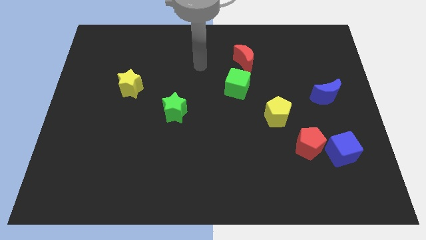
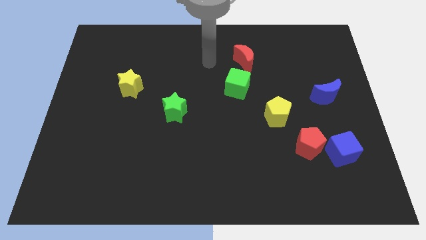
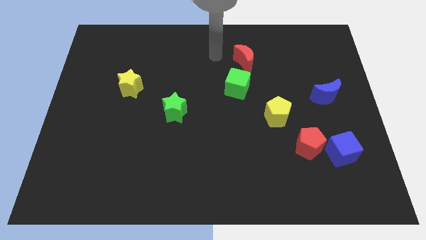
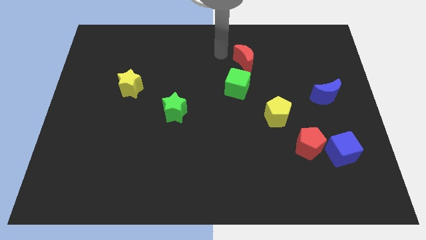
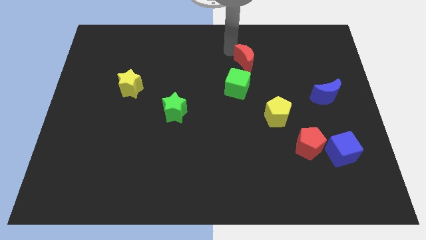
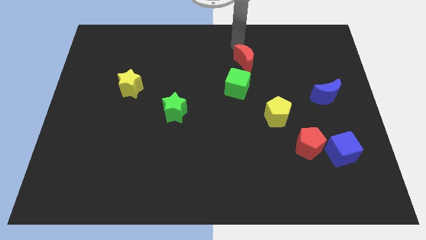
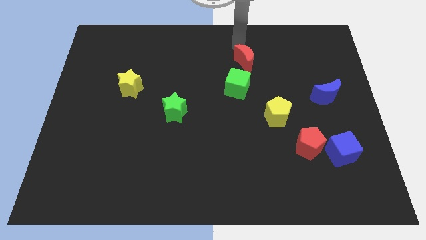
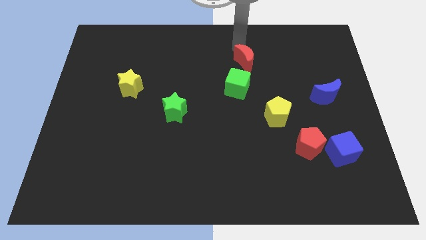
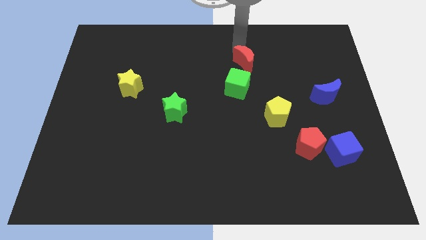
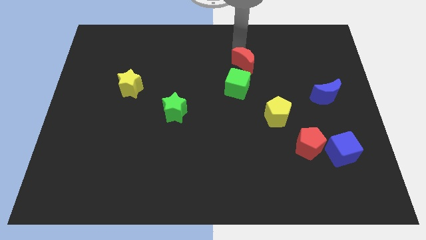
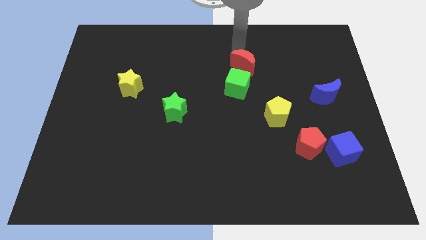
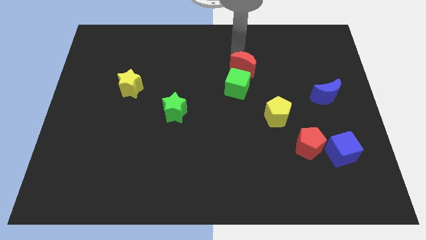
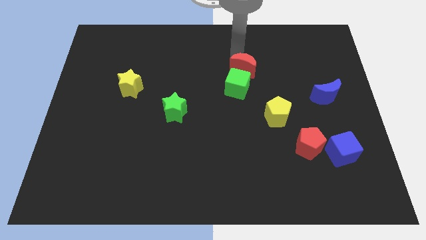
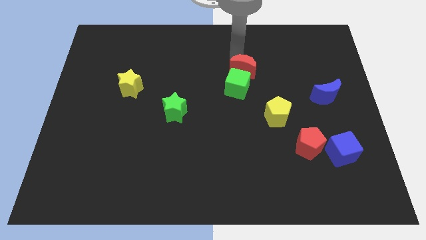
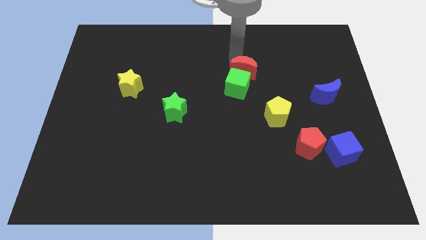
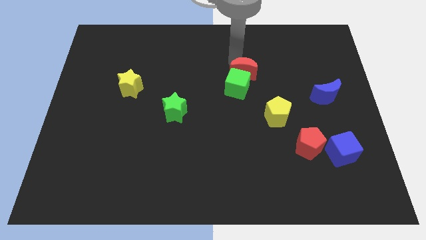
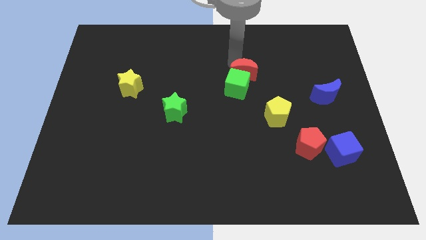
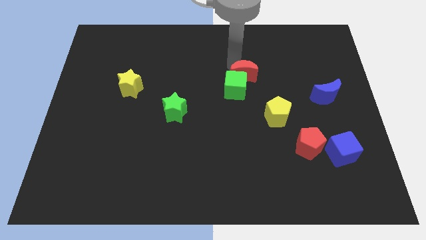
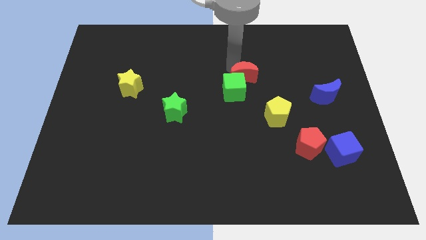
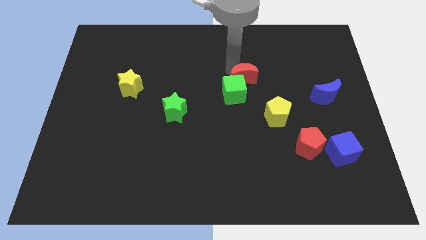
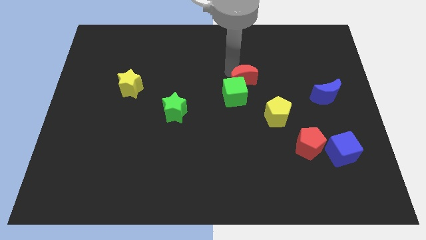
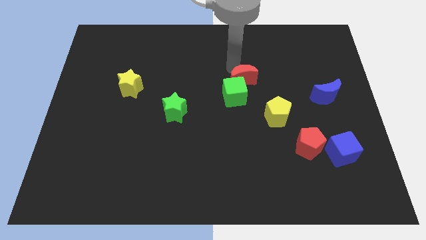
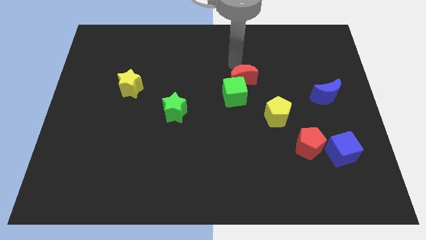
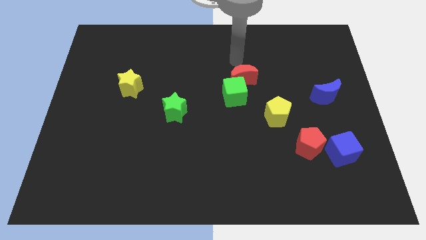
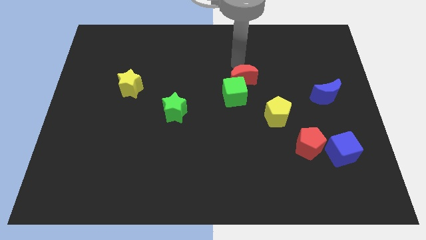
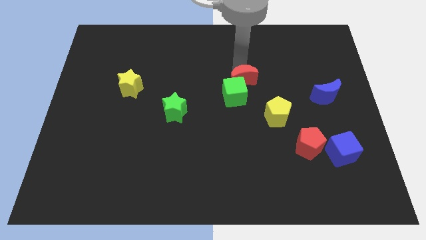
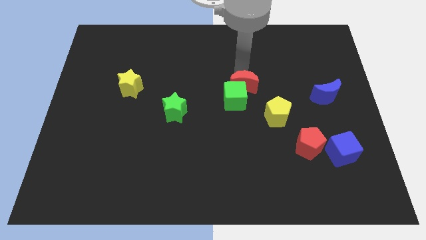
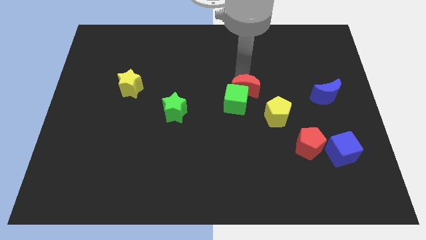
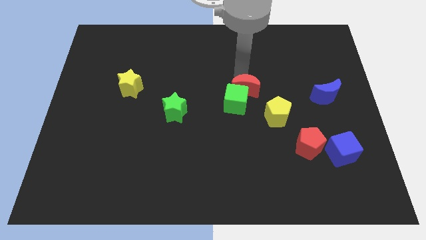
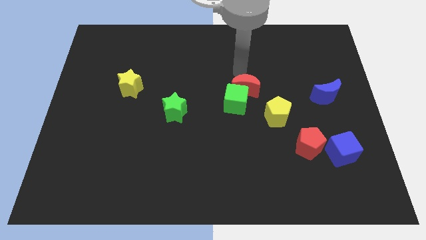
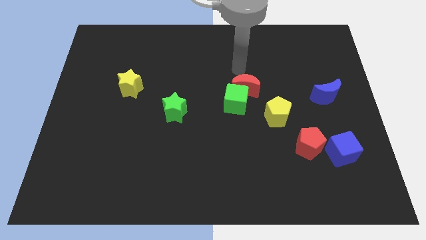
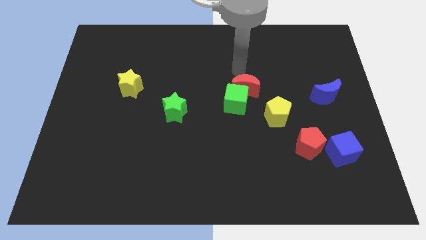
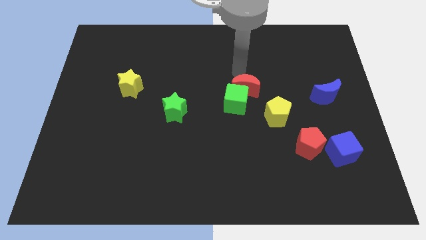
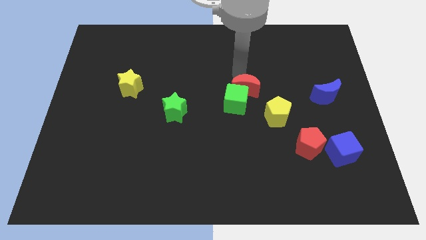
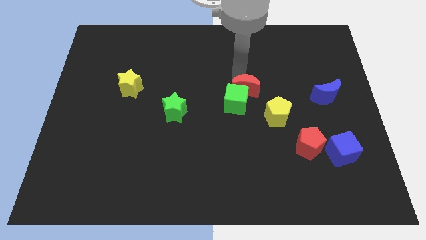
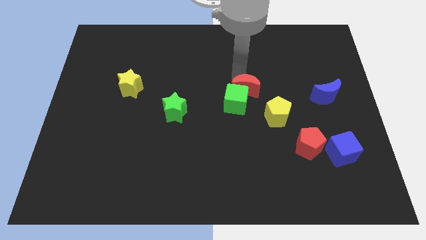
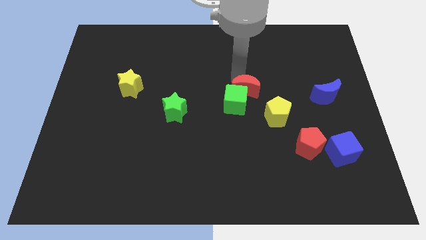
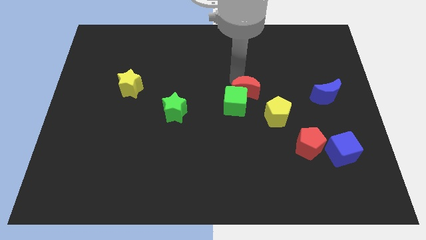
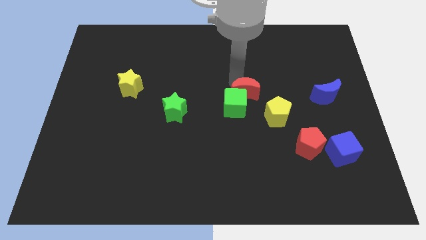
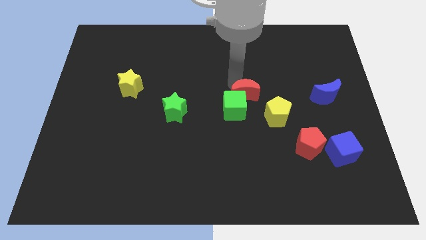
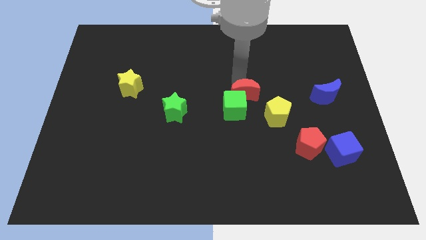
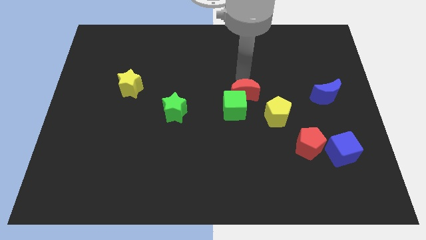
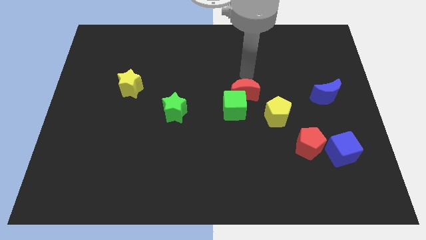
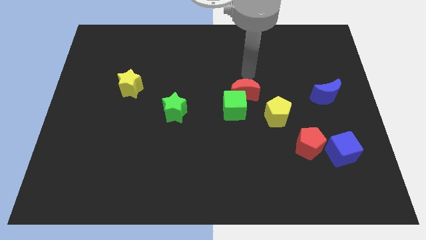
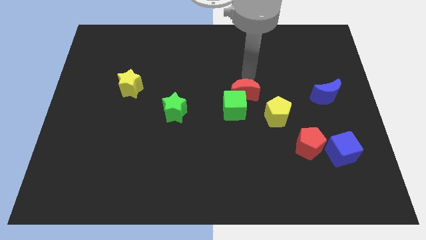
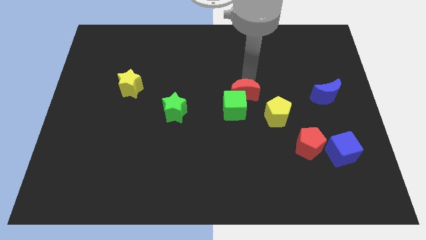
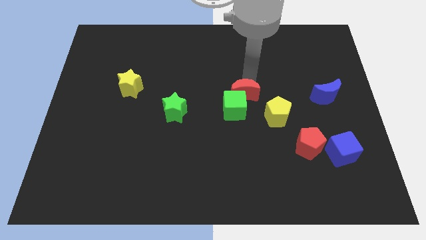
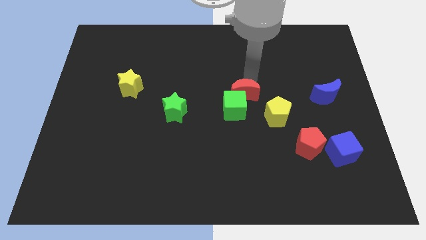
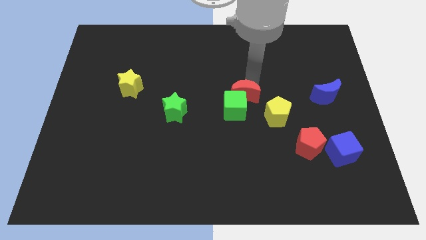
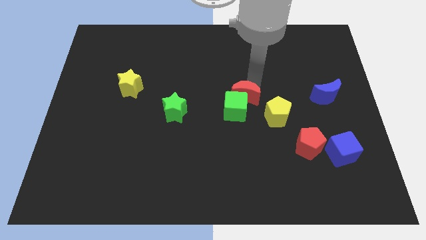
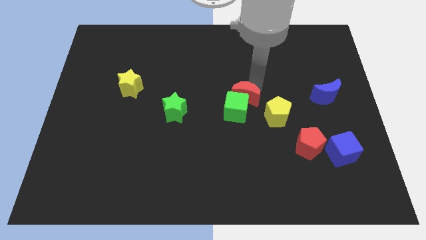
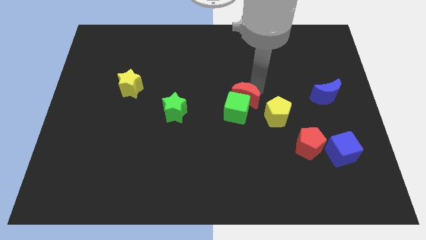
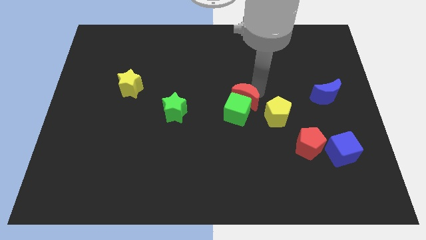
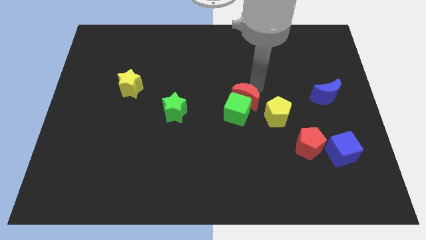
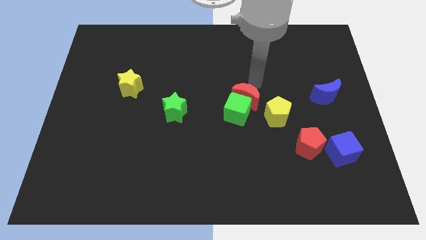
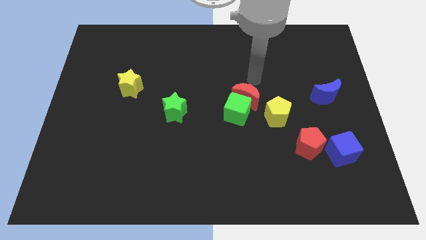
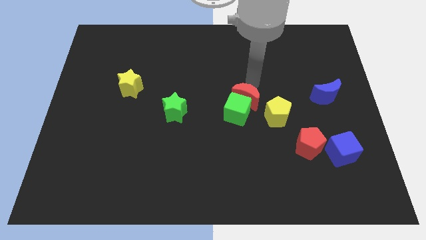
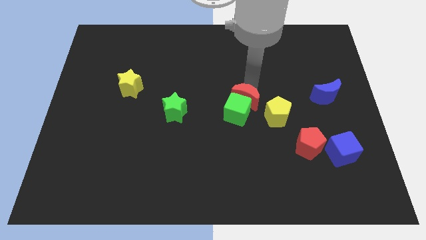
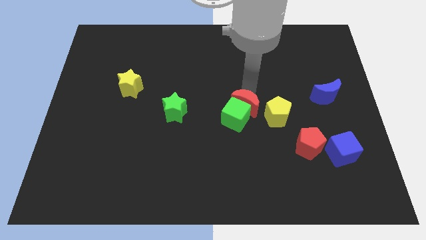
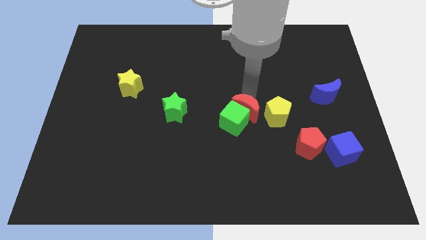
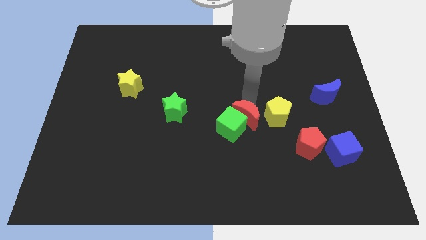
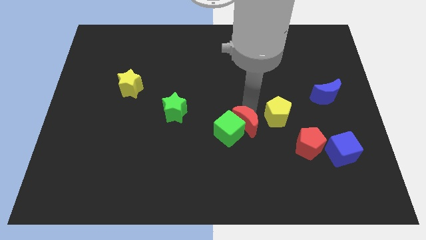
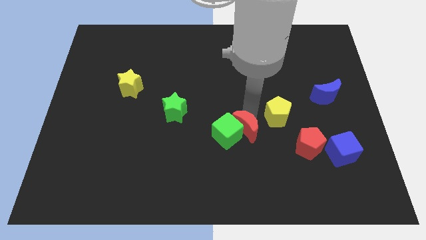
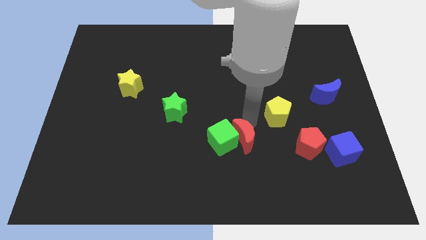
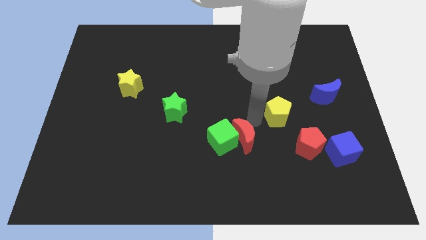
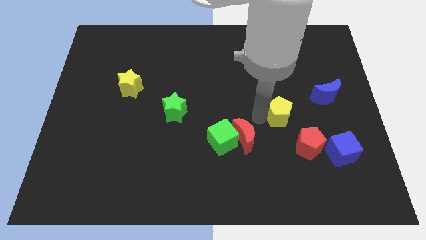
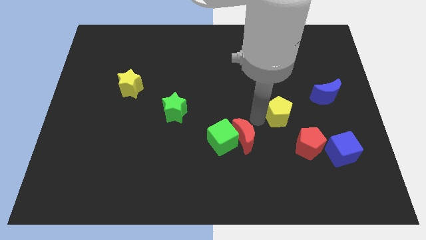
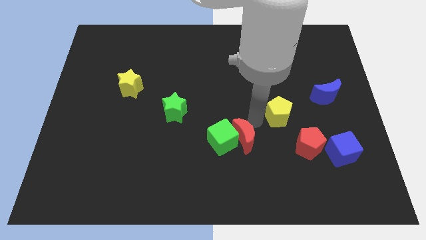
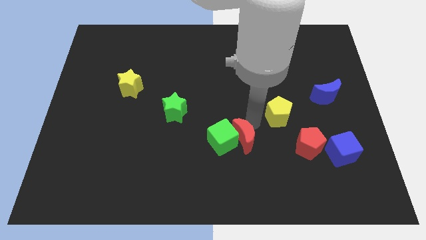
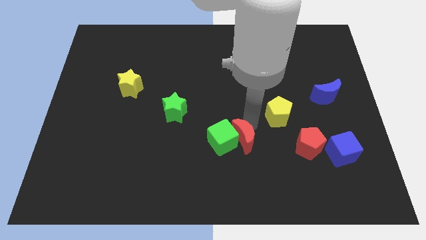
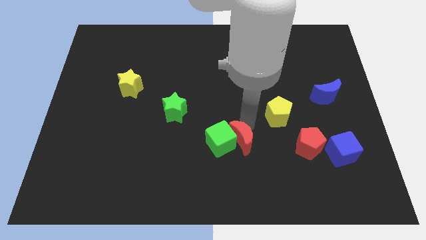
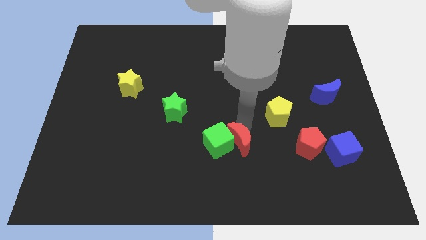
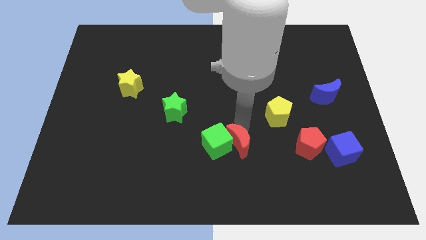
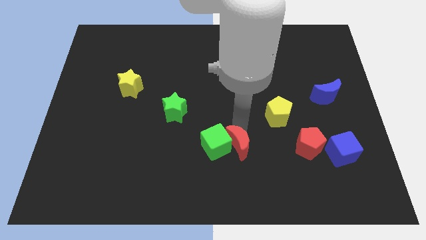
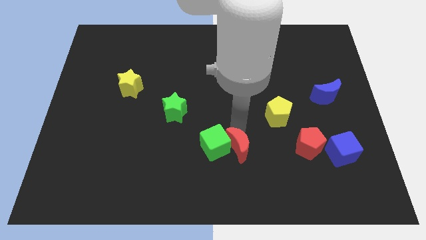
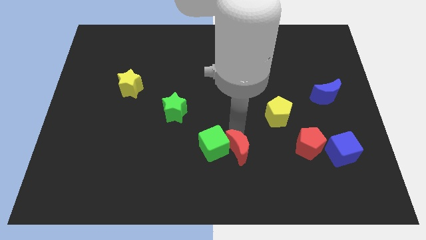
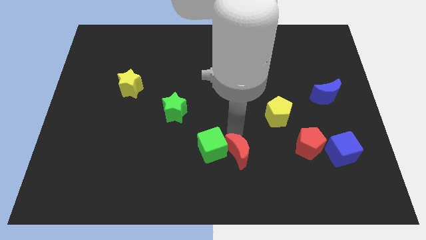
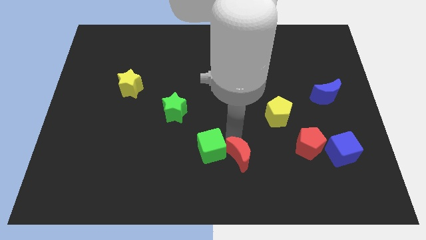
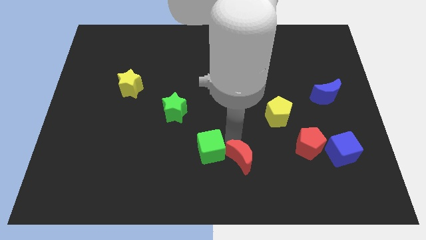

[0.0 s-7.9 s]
put the red moon to the bottom side
